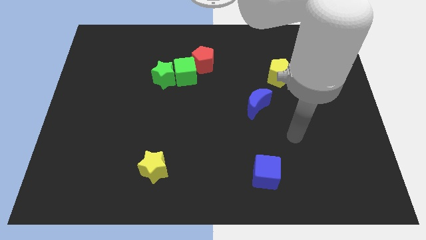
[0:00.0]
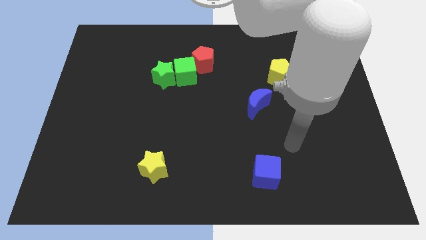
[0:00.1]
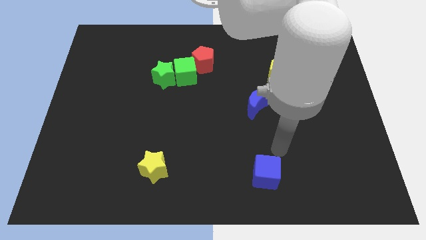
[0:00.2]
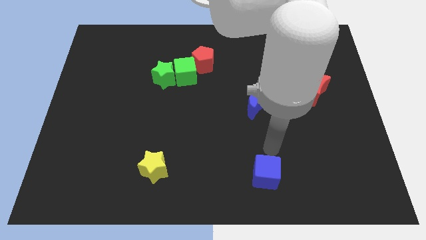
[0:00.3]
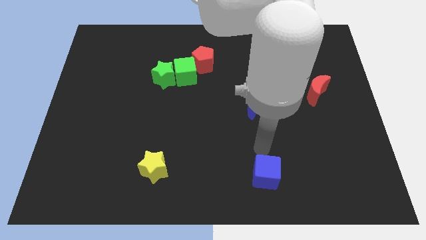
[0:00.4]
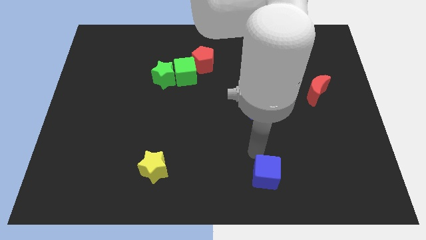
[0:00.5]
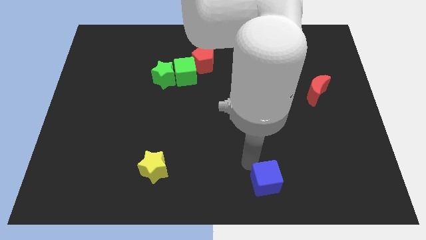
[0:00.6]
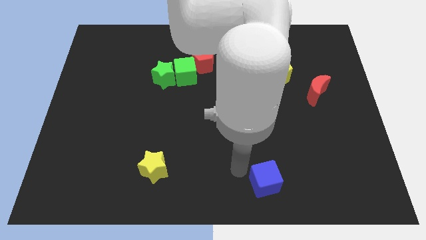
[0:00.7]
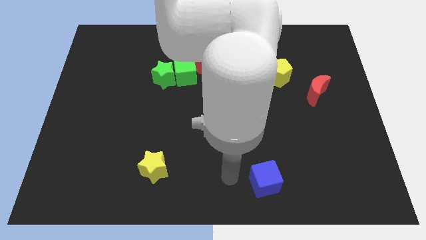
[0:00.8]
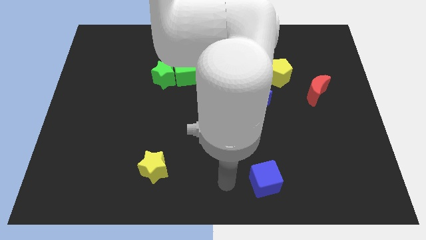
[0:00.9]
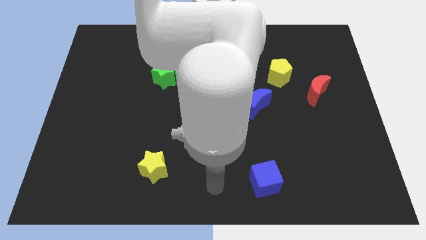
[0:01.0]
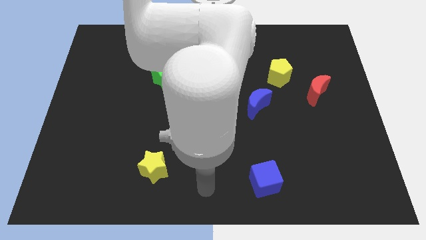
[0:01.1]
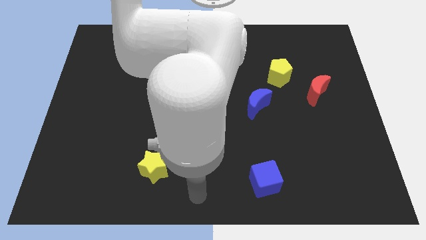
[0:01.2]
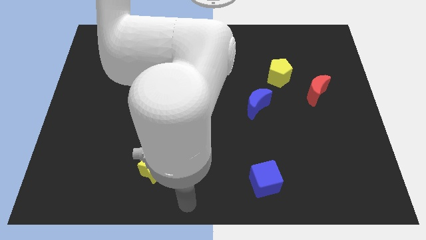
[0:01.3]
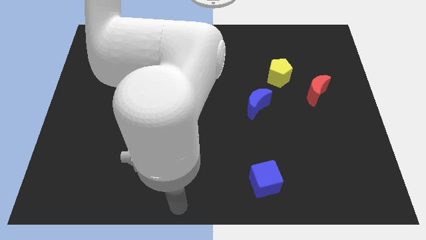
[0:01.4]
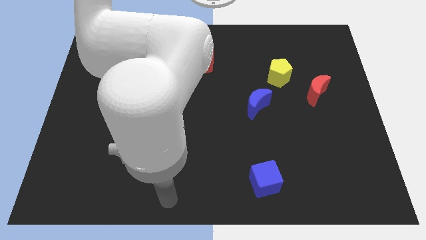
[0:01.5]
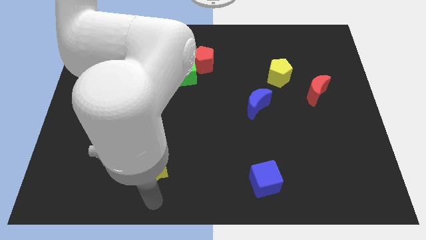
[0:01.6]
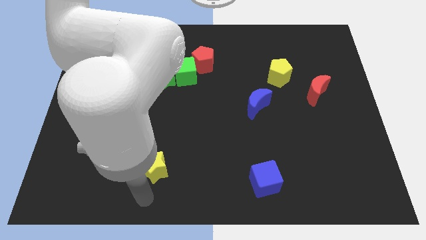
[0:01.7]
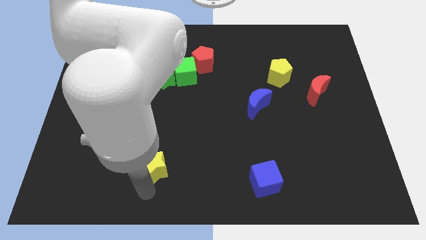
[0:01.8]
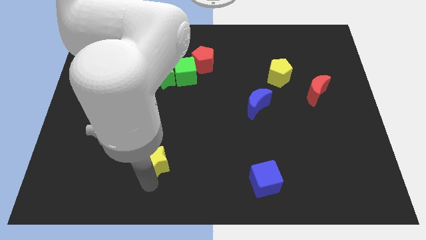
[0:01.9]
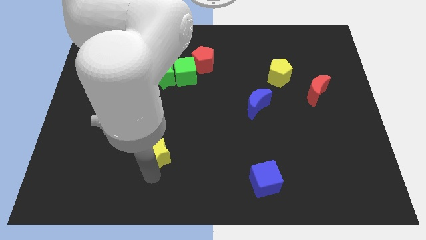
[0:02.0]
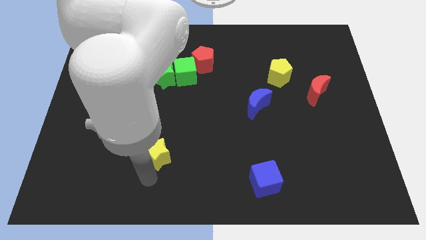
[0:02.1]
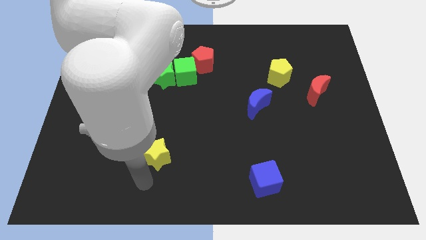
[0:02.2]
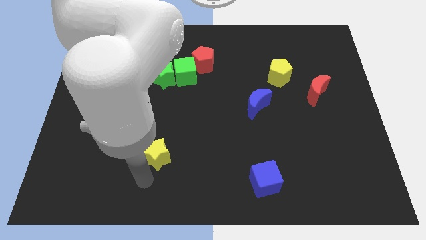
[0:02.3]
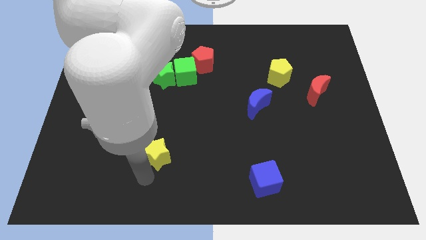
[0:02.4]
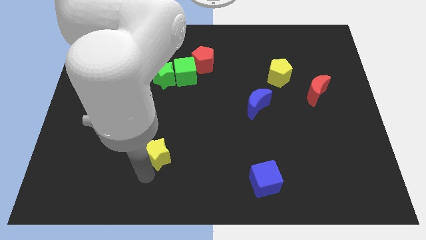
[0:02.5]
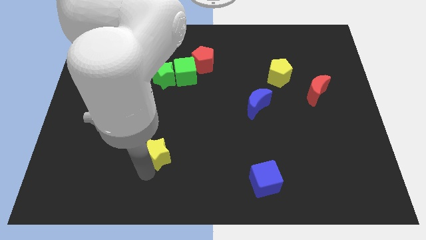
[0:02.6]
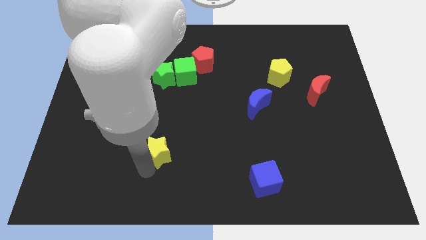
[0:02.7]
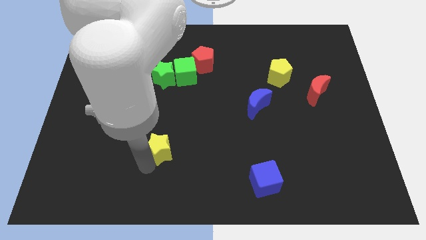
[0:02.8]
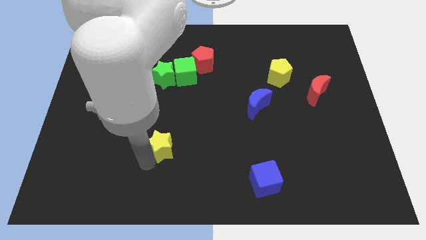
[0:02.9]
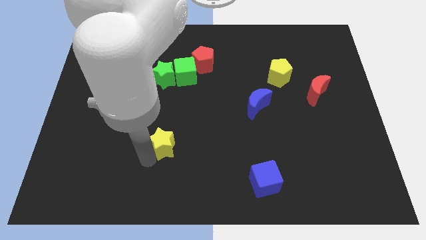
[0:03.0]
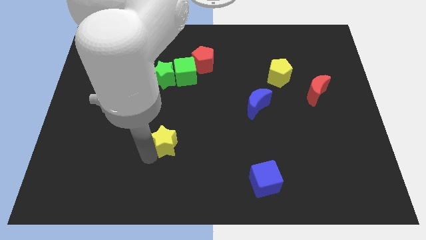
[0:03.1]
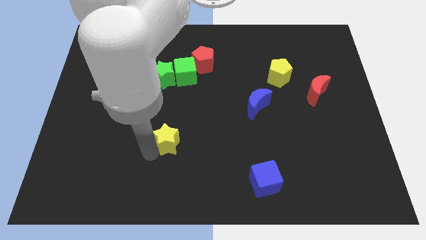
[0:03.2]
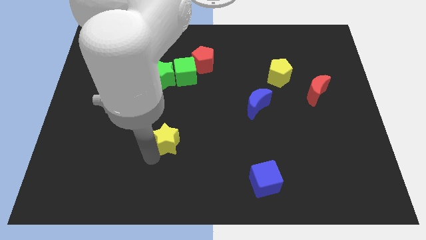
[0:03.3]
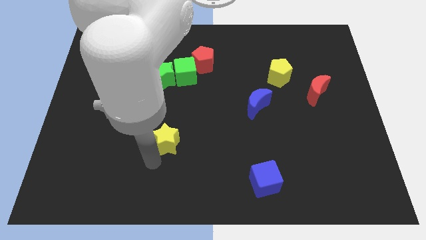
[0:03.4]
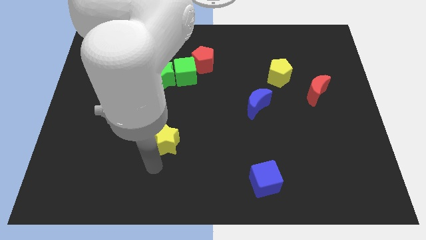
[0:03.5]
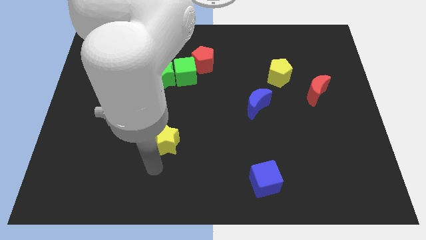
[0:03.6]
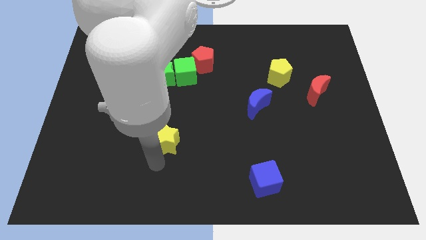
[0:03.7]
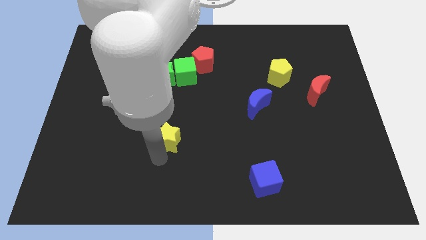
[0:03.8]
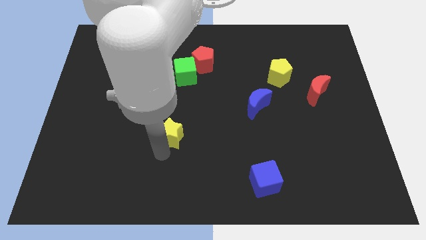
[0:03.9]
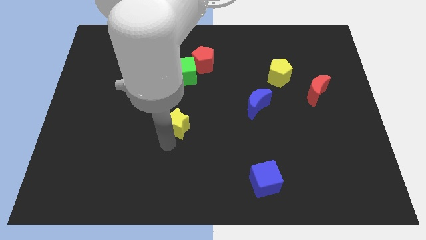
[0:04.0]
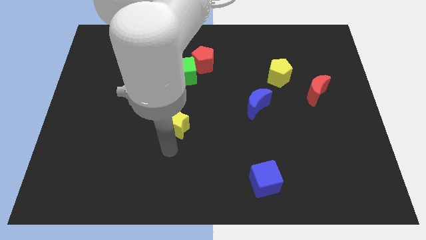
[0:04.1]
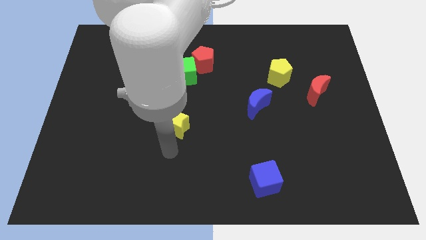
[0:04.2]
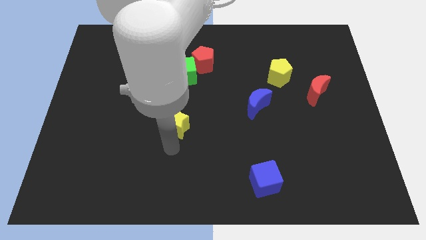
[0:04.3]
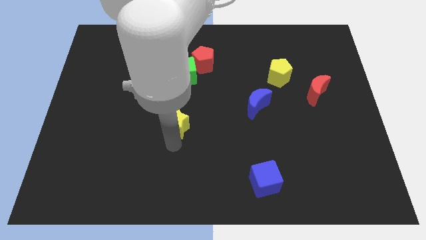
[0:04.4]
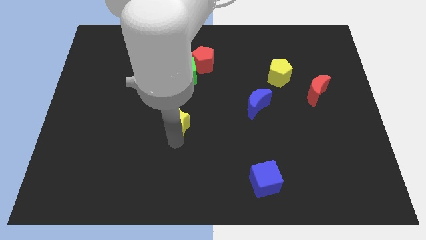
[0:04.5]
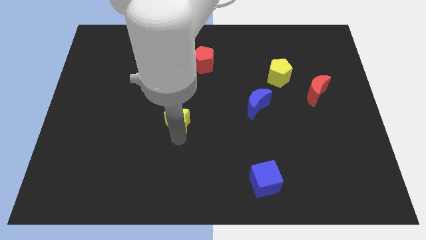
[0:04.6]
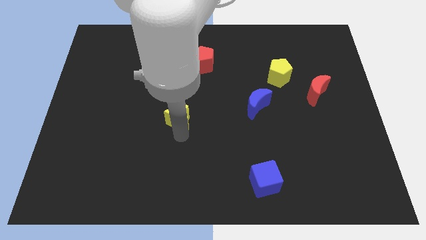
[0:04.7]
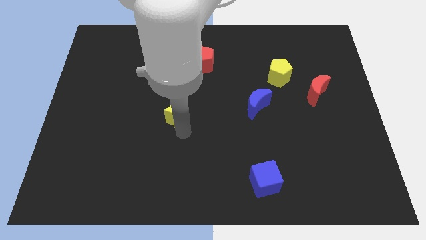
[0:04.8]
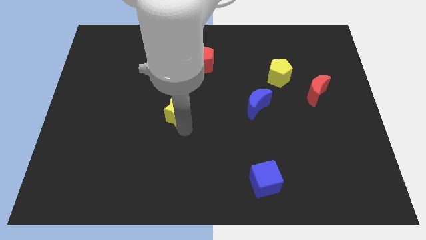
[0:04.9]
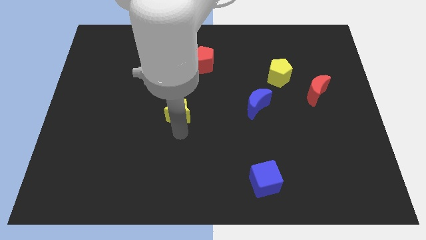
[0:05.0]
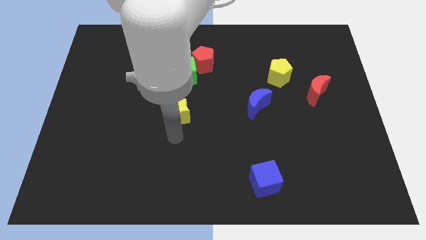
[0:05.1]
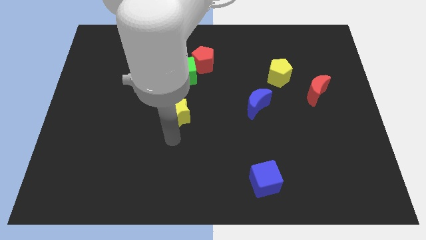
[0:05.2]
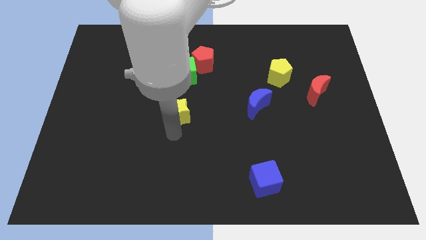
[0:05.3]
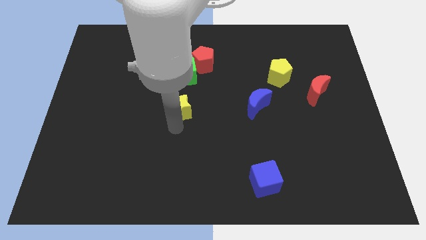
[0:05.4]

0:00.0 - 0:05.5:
slide the yellow star to the bottom right of the green star

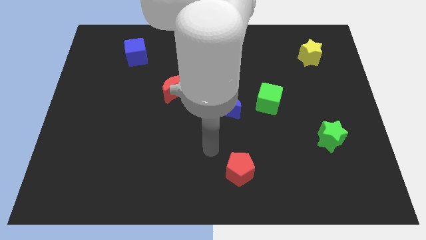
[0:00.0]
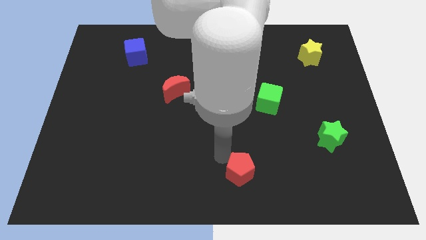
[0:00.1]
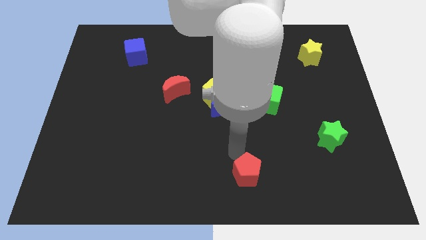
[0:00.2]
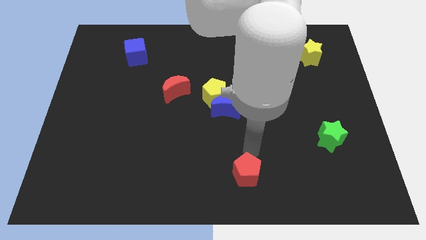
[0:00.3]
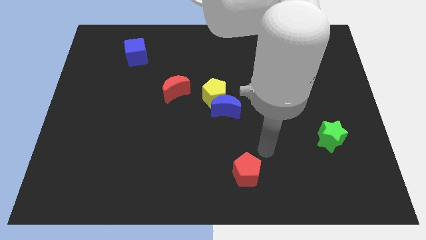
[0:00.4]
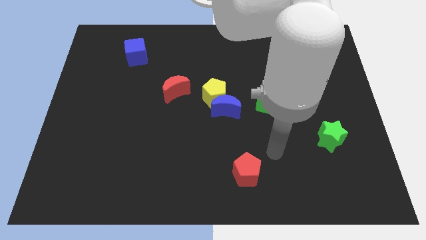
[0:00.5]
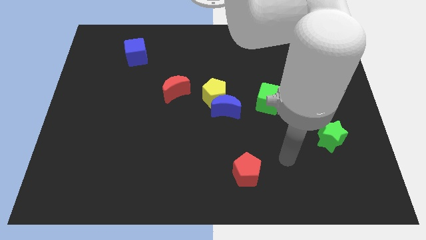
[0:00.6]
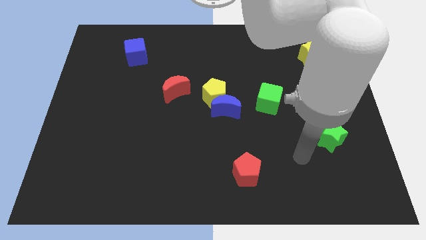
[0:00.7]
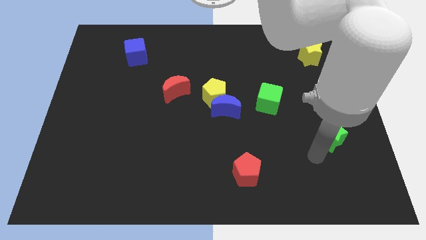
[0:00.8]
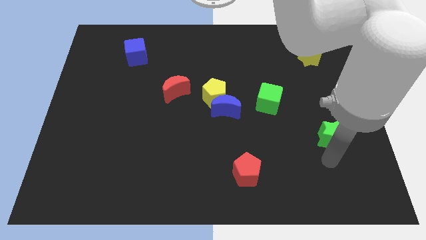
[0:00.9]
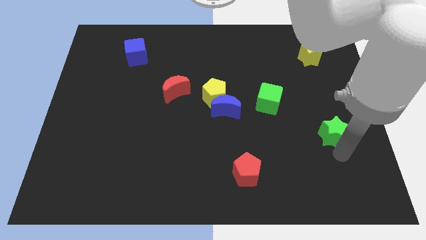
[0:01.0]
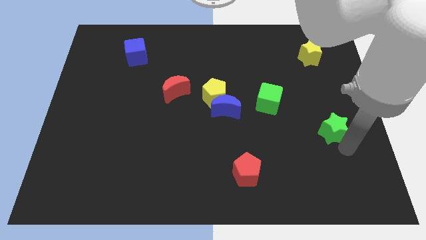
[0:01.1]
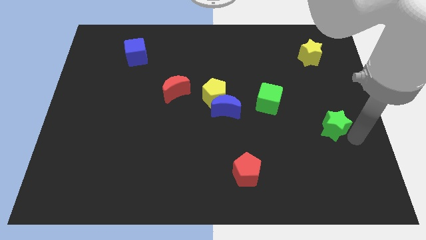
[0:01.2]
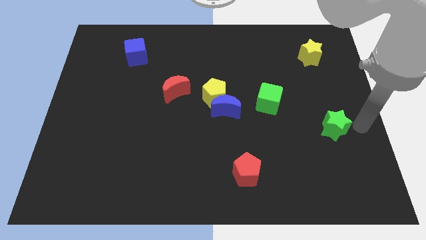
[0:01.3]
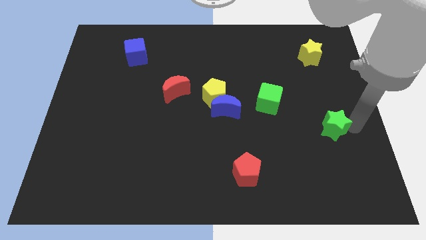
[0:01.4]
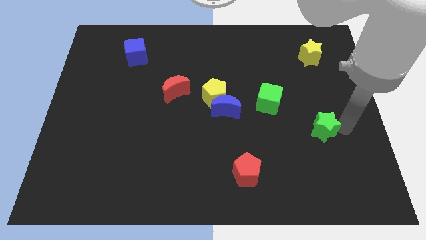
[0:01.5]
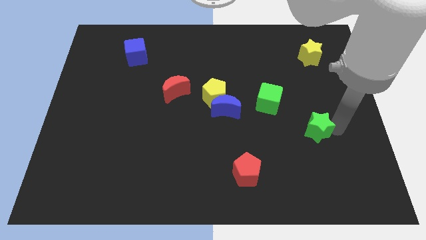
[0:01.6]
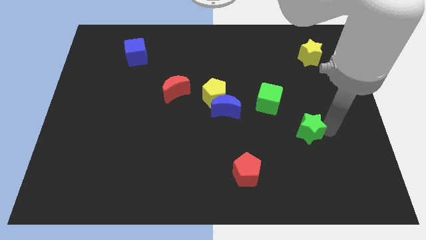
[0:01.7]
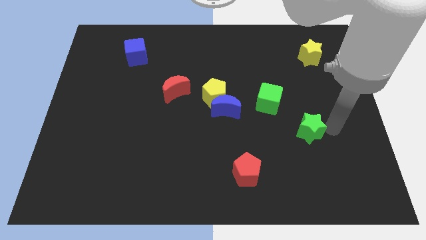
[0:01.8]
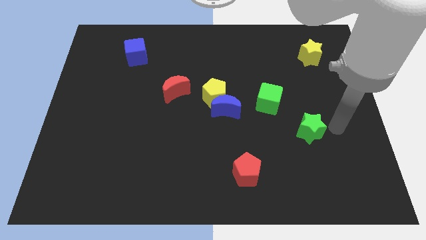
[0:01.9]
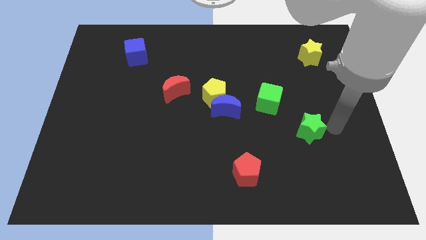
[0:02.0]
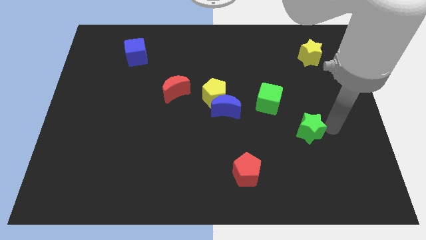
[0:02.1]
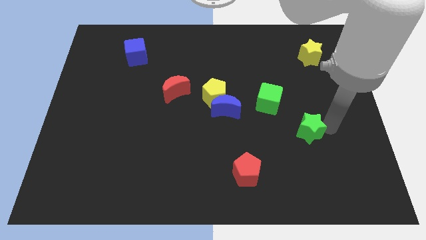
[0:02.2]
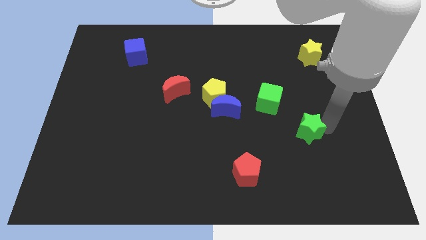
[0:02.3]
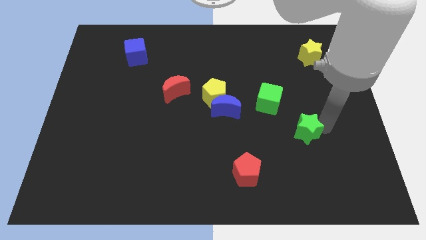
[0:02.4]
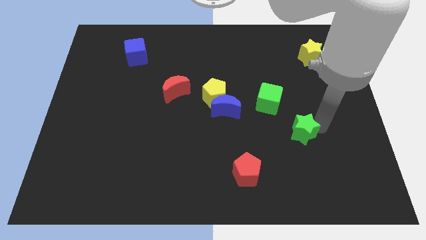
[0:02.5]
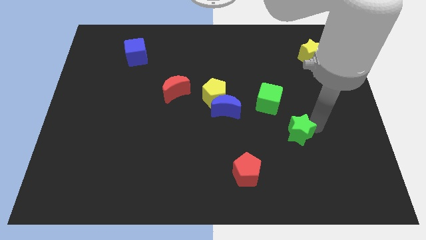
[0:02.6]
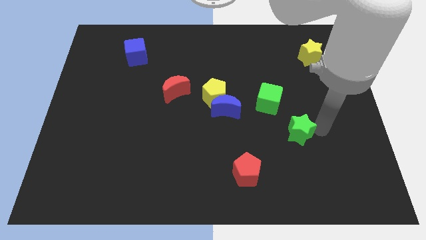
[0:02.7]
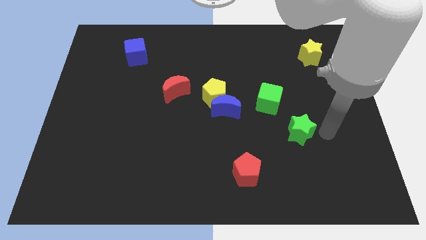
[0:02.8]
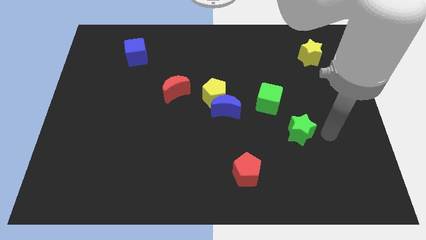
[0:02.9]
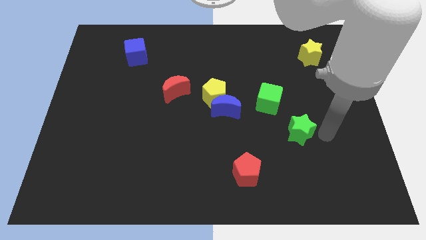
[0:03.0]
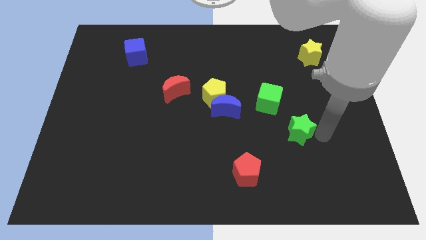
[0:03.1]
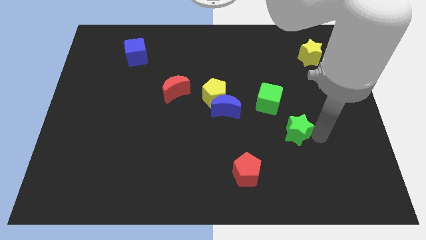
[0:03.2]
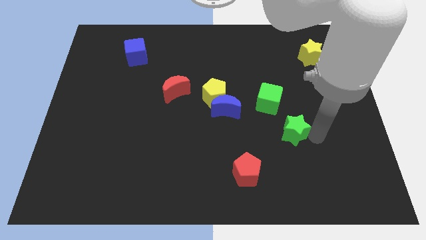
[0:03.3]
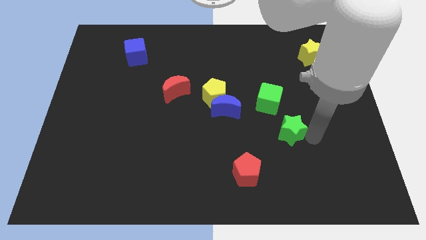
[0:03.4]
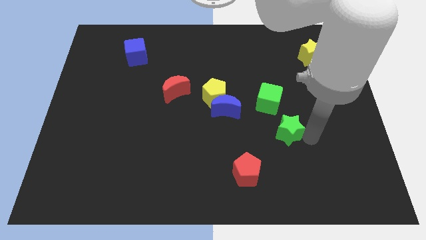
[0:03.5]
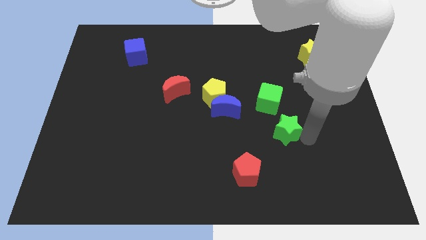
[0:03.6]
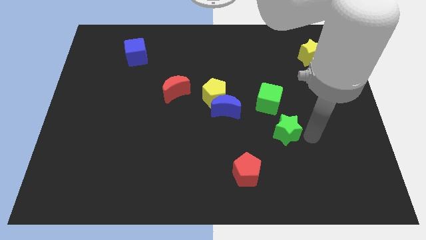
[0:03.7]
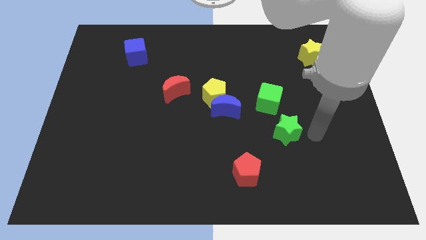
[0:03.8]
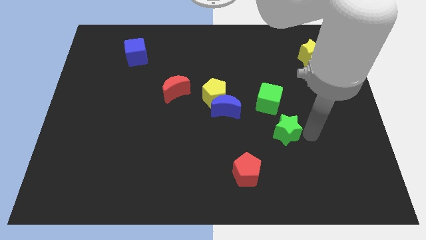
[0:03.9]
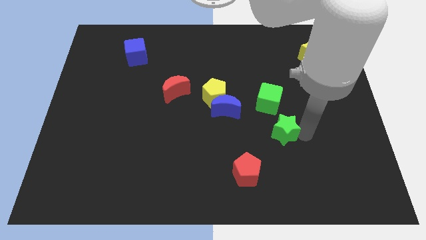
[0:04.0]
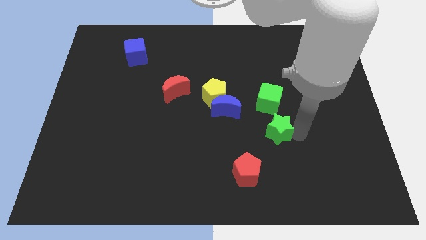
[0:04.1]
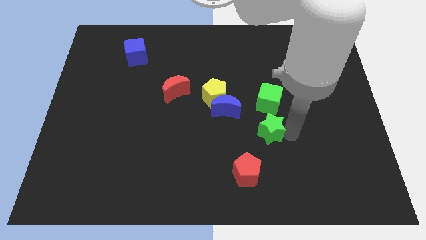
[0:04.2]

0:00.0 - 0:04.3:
put the green star diagonally down and to the right of the blue moon
